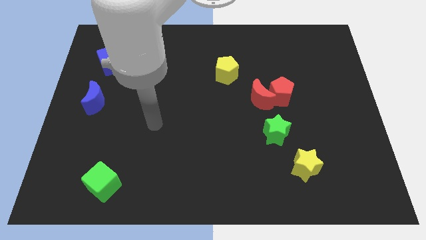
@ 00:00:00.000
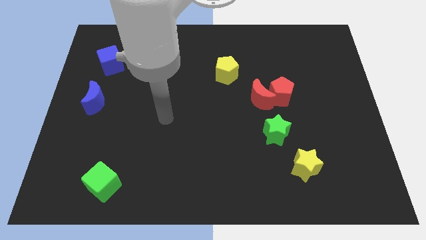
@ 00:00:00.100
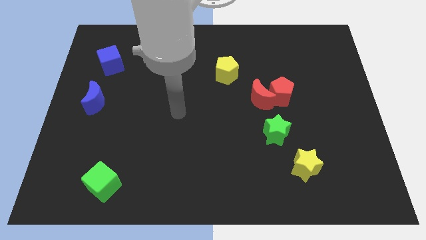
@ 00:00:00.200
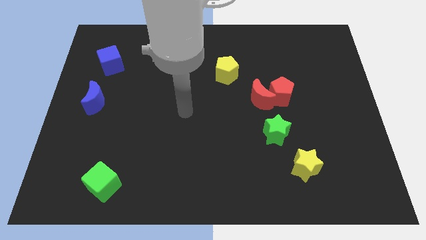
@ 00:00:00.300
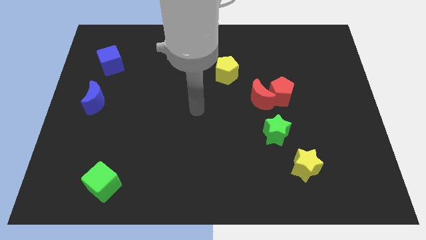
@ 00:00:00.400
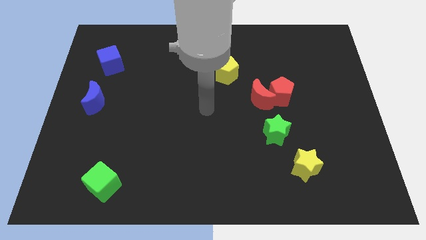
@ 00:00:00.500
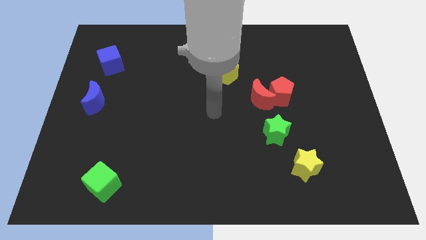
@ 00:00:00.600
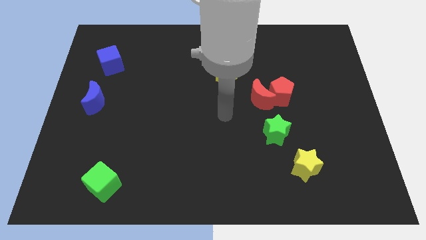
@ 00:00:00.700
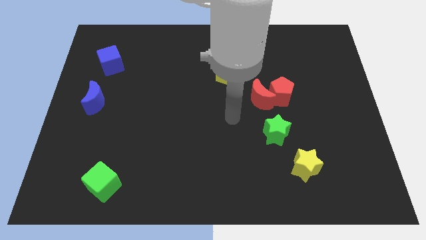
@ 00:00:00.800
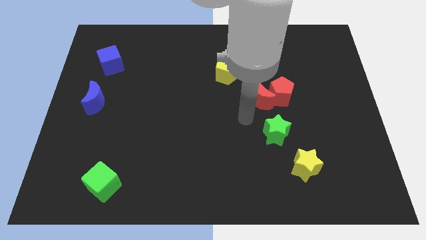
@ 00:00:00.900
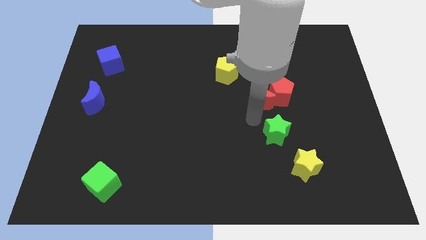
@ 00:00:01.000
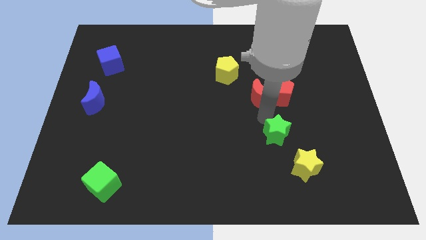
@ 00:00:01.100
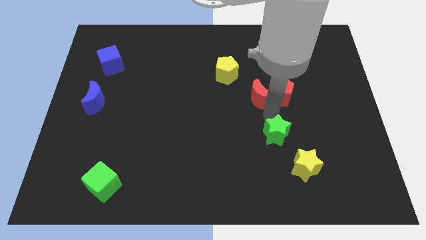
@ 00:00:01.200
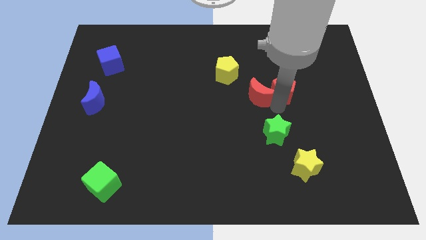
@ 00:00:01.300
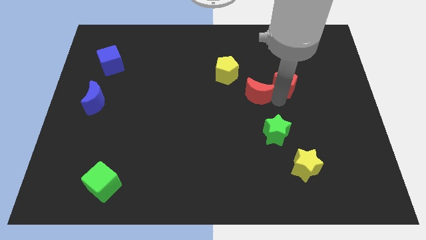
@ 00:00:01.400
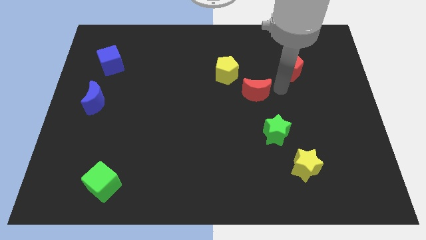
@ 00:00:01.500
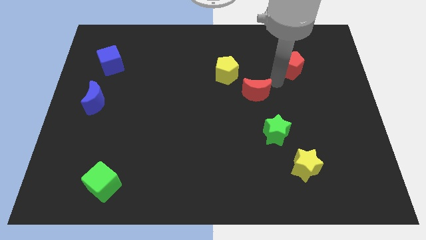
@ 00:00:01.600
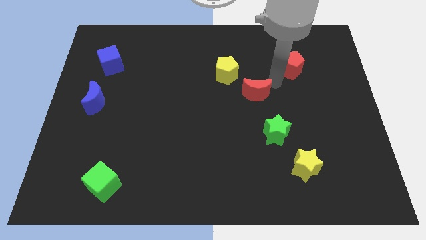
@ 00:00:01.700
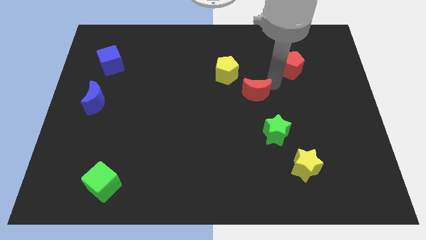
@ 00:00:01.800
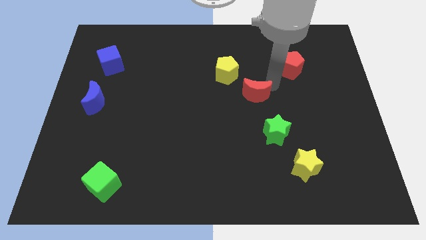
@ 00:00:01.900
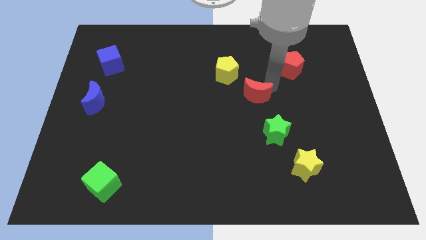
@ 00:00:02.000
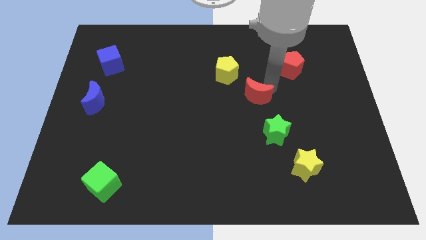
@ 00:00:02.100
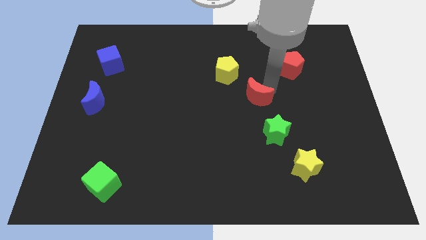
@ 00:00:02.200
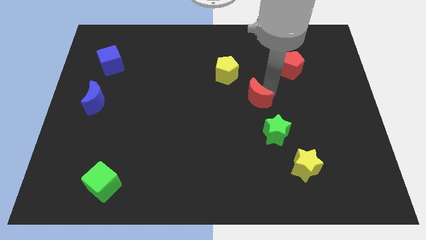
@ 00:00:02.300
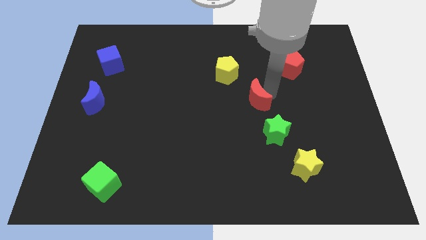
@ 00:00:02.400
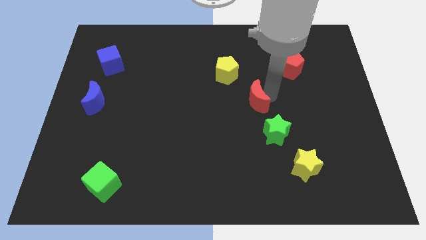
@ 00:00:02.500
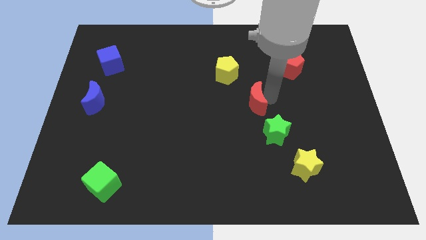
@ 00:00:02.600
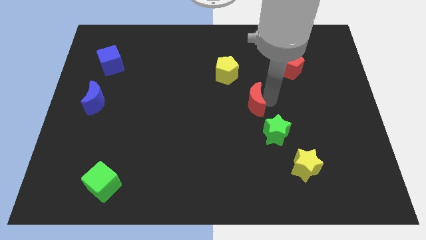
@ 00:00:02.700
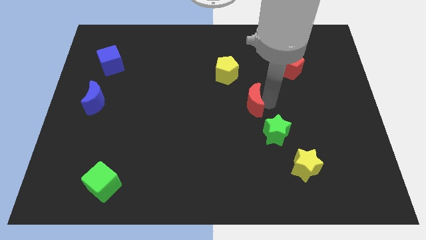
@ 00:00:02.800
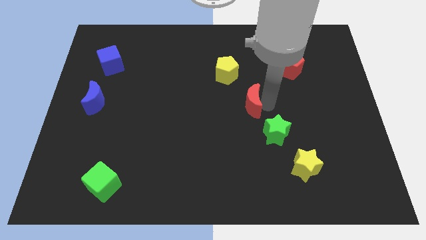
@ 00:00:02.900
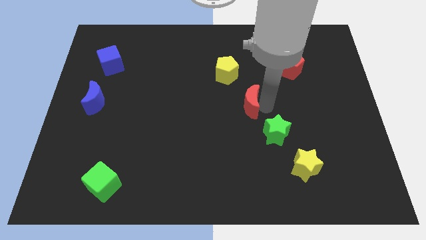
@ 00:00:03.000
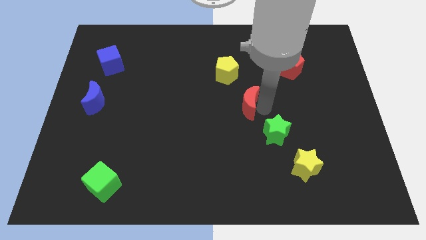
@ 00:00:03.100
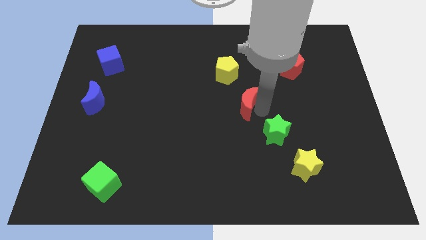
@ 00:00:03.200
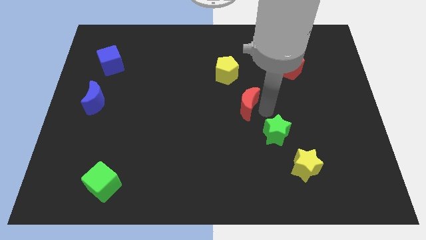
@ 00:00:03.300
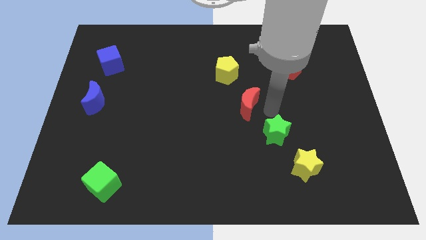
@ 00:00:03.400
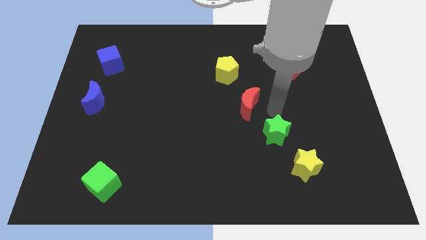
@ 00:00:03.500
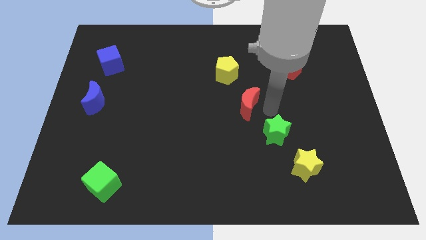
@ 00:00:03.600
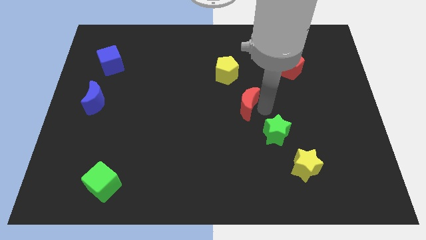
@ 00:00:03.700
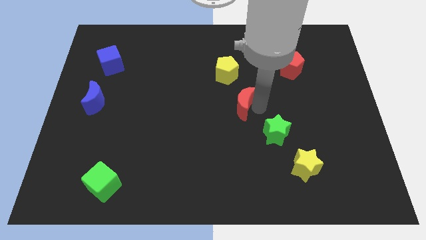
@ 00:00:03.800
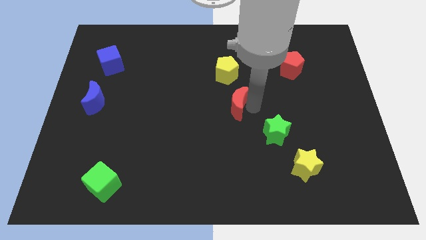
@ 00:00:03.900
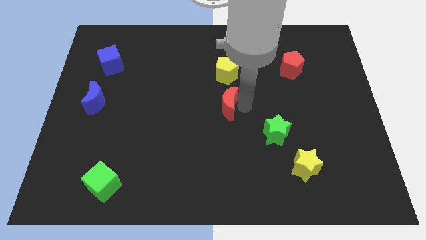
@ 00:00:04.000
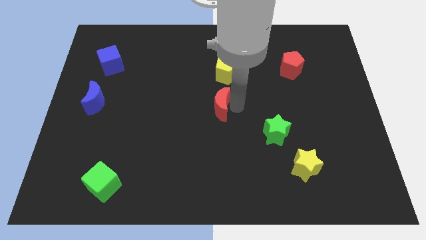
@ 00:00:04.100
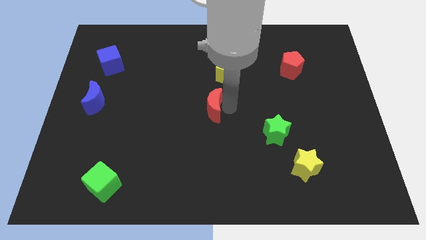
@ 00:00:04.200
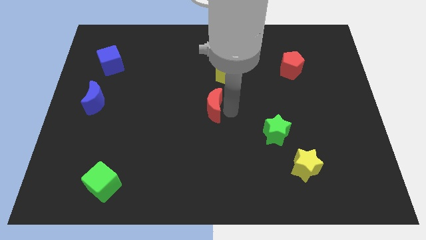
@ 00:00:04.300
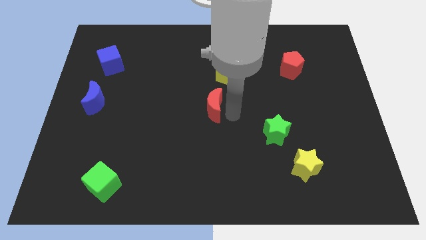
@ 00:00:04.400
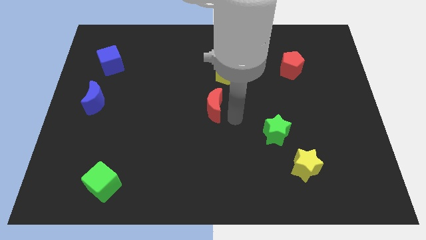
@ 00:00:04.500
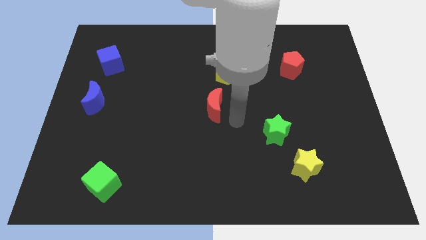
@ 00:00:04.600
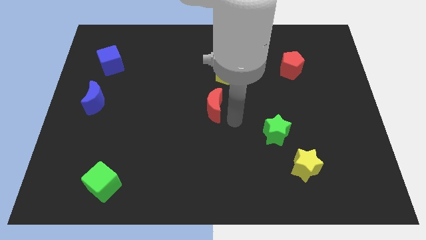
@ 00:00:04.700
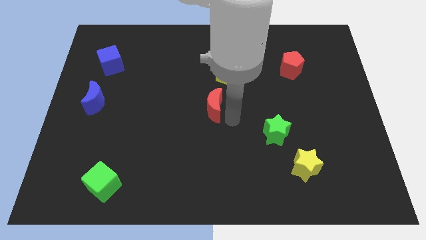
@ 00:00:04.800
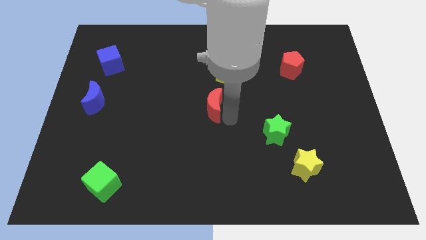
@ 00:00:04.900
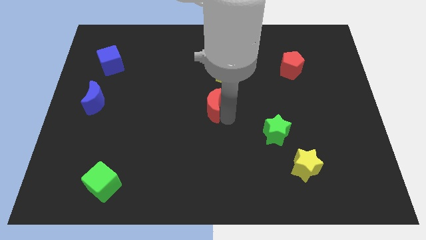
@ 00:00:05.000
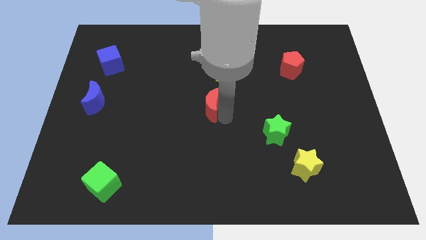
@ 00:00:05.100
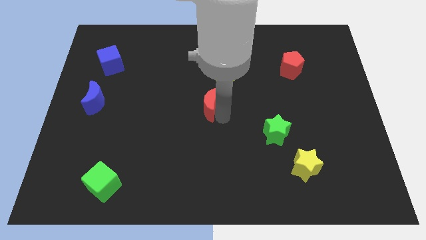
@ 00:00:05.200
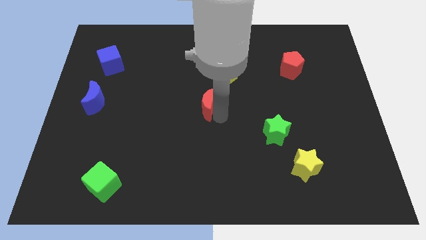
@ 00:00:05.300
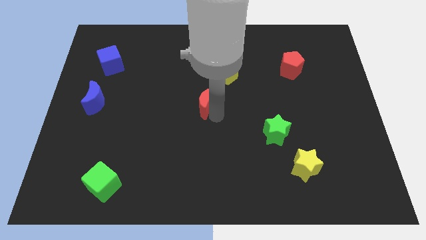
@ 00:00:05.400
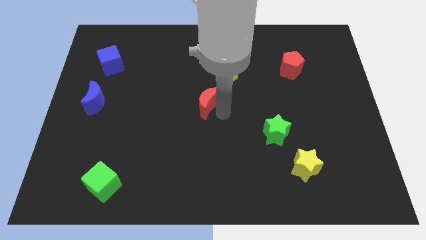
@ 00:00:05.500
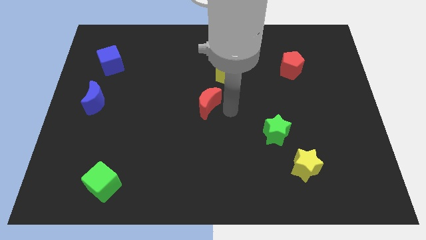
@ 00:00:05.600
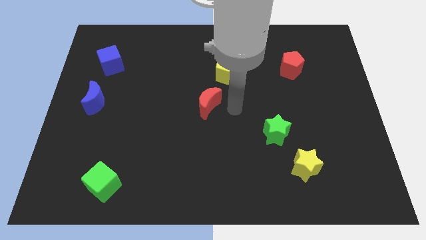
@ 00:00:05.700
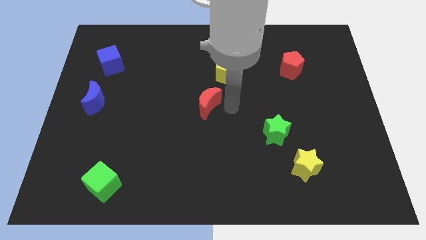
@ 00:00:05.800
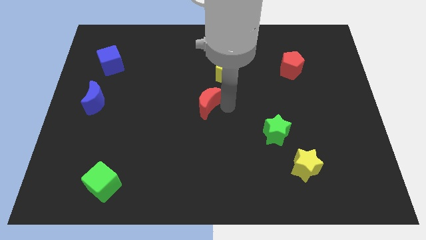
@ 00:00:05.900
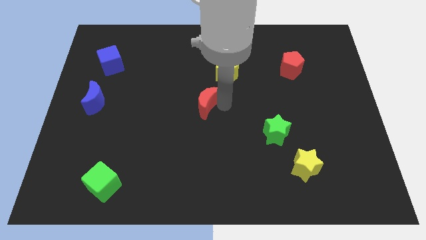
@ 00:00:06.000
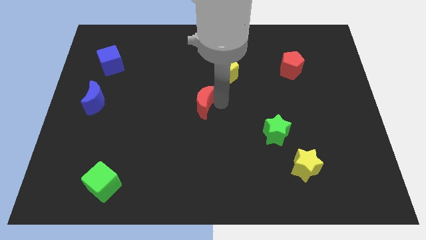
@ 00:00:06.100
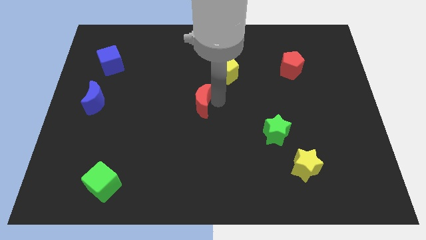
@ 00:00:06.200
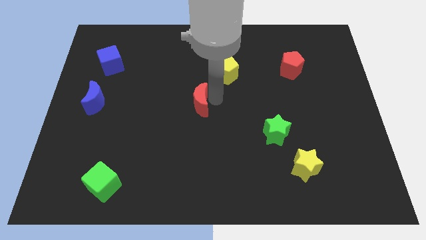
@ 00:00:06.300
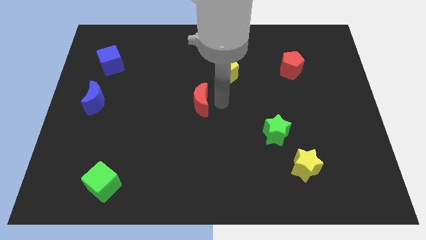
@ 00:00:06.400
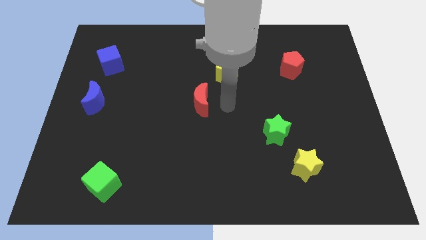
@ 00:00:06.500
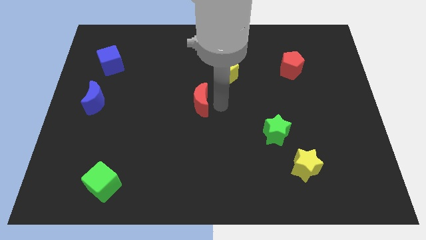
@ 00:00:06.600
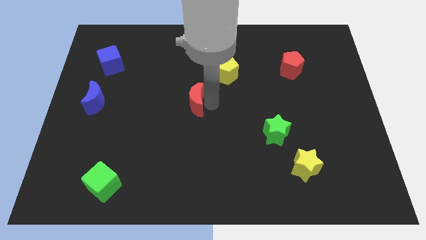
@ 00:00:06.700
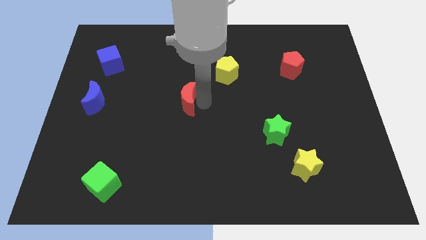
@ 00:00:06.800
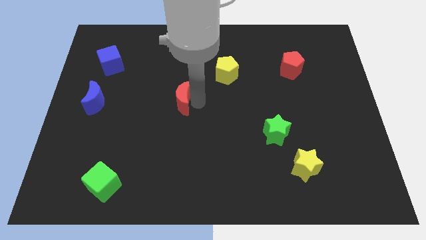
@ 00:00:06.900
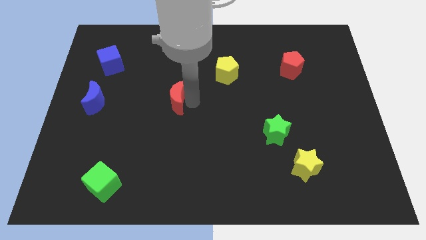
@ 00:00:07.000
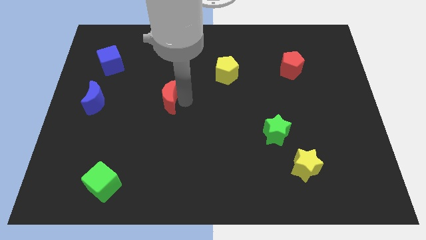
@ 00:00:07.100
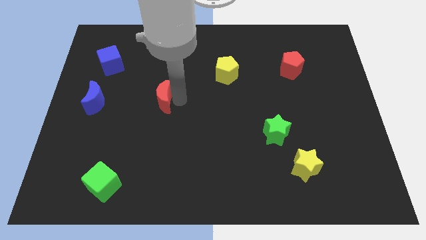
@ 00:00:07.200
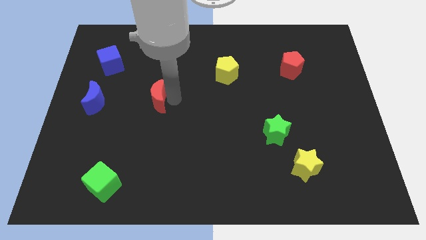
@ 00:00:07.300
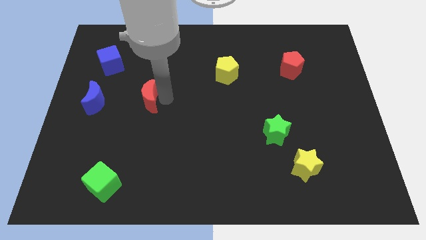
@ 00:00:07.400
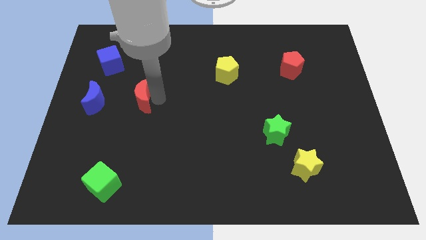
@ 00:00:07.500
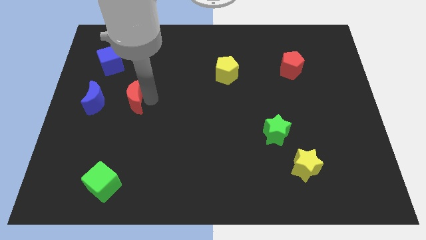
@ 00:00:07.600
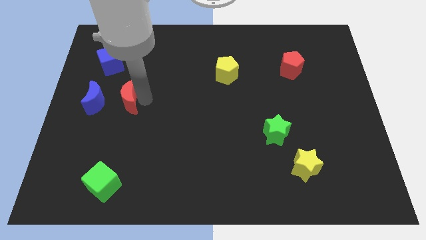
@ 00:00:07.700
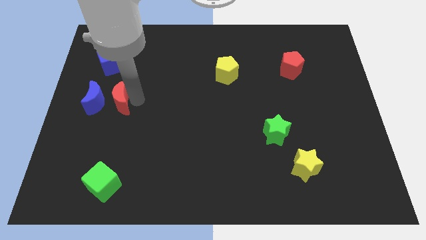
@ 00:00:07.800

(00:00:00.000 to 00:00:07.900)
push the red moon to the blue moon
